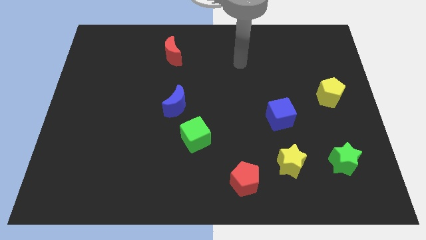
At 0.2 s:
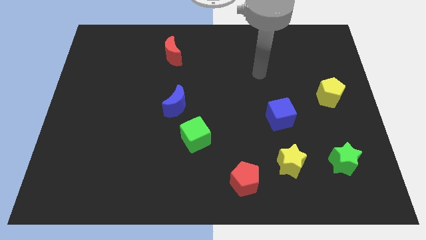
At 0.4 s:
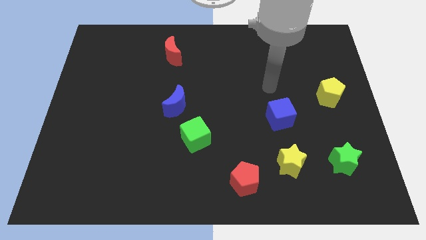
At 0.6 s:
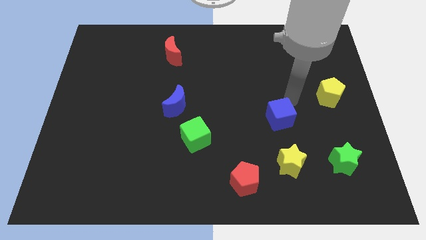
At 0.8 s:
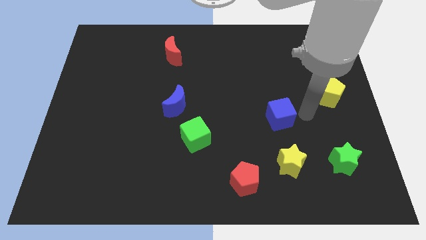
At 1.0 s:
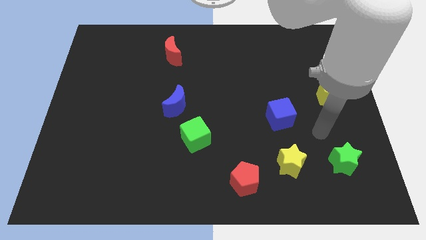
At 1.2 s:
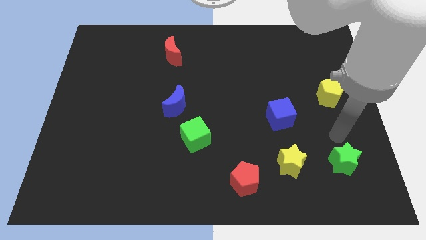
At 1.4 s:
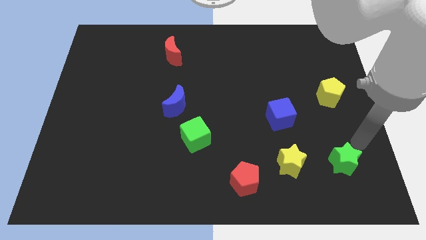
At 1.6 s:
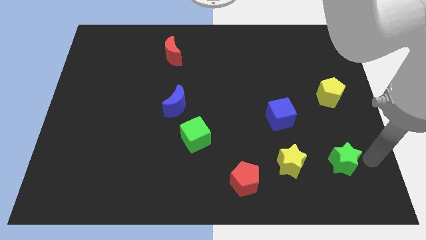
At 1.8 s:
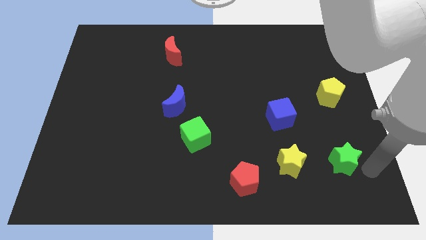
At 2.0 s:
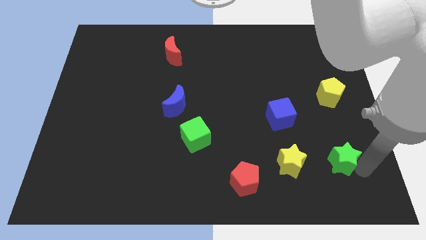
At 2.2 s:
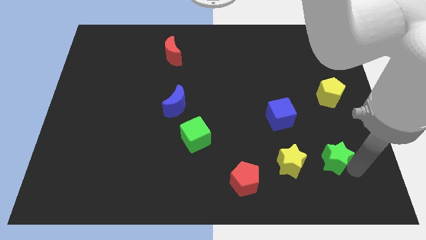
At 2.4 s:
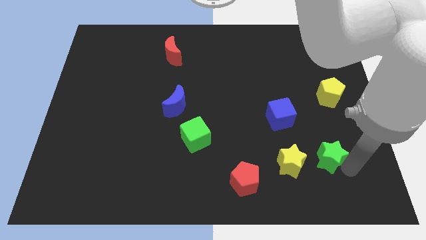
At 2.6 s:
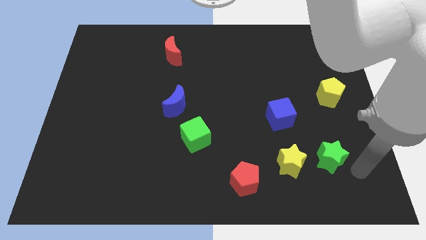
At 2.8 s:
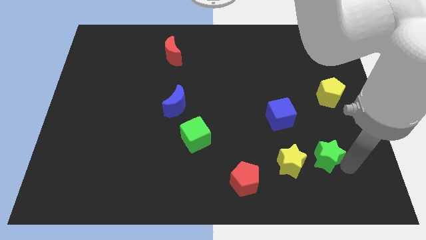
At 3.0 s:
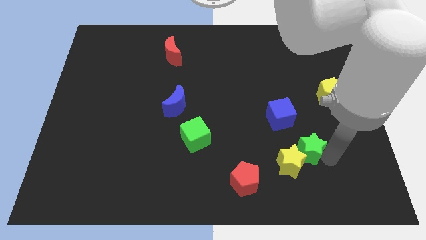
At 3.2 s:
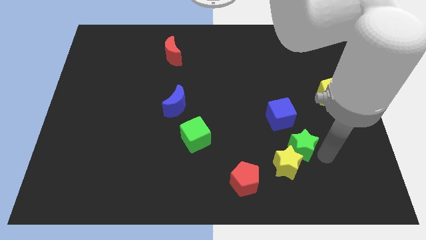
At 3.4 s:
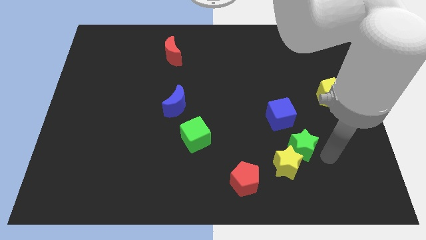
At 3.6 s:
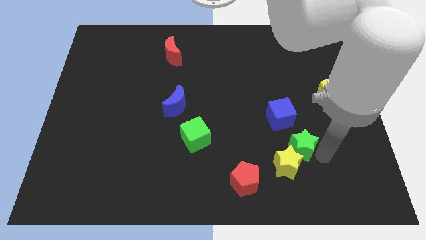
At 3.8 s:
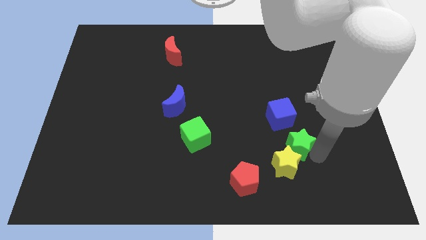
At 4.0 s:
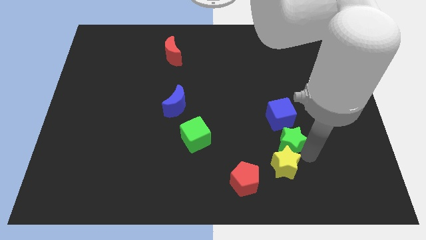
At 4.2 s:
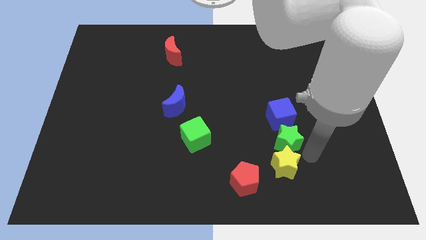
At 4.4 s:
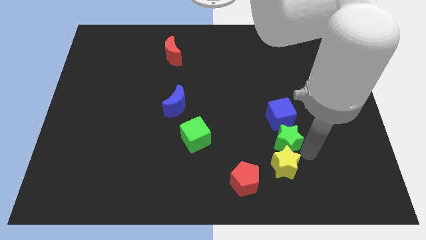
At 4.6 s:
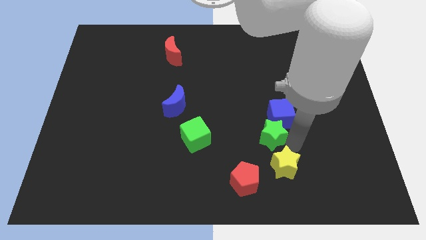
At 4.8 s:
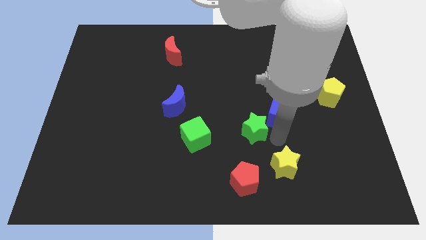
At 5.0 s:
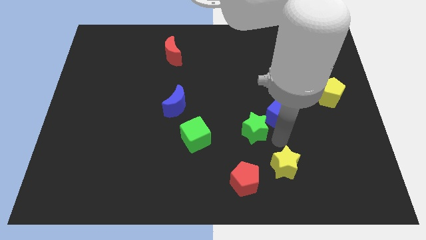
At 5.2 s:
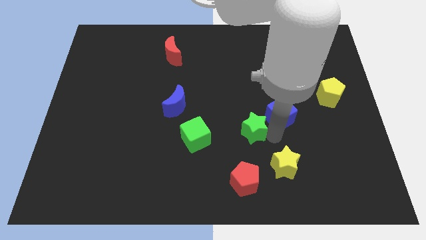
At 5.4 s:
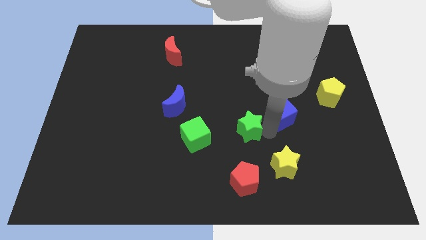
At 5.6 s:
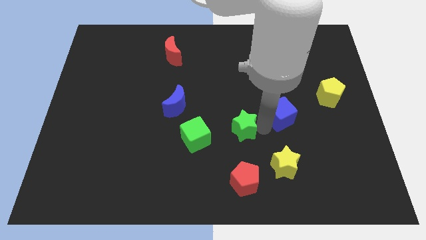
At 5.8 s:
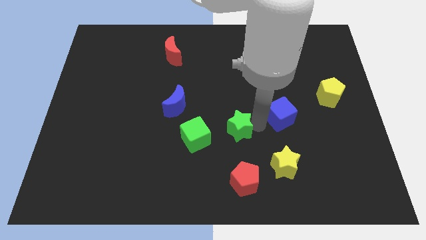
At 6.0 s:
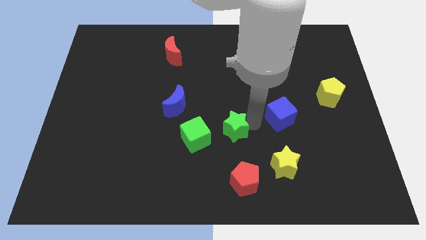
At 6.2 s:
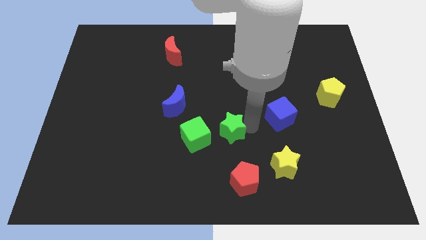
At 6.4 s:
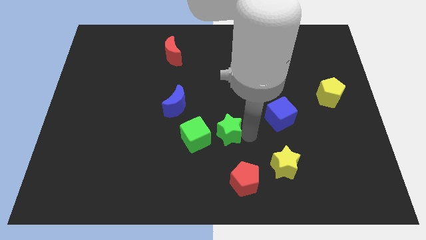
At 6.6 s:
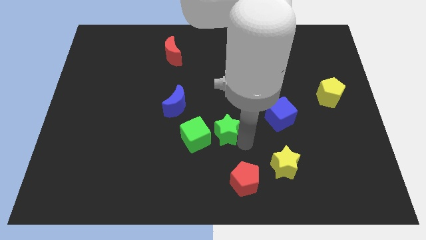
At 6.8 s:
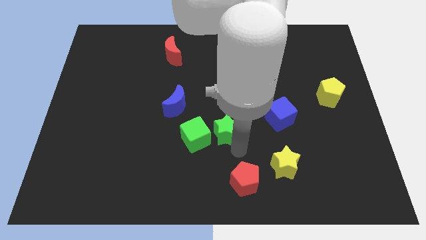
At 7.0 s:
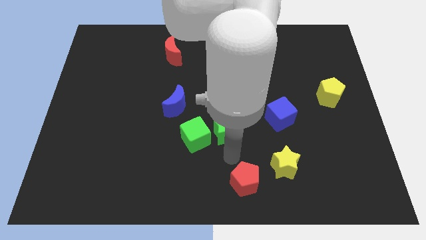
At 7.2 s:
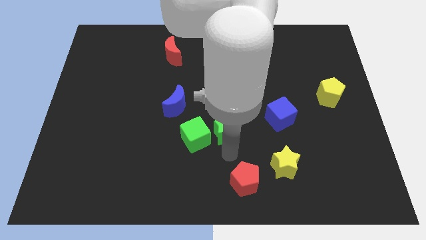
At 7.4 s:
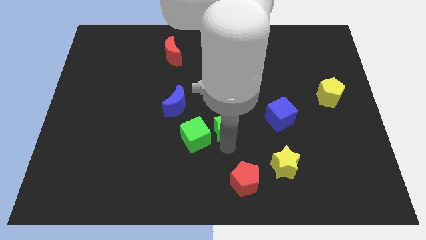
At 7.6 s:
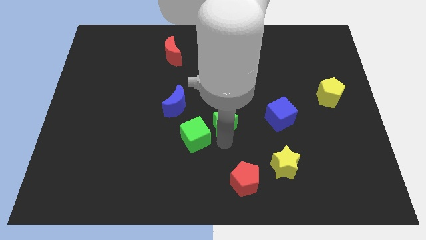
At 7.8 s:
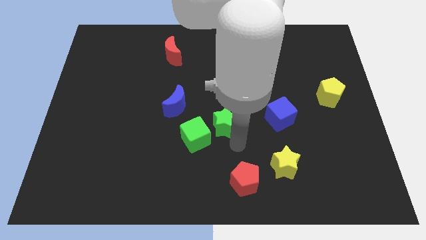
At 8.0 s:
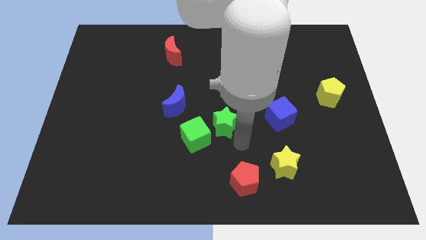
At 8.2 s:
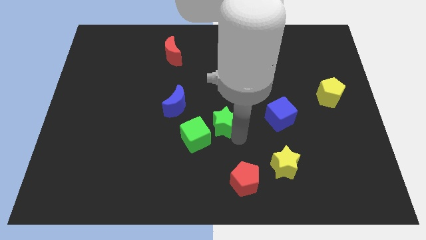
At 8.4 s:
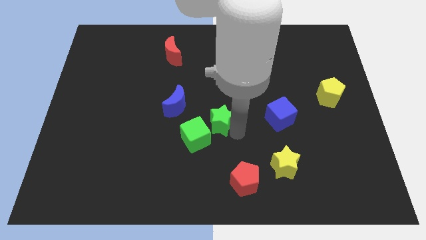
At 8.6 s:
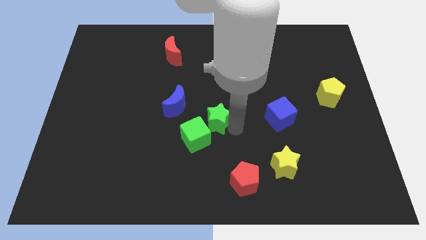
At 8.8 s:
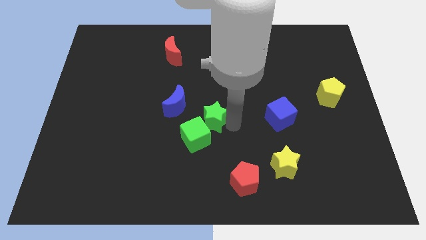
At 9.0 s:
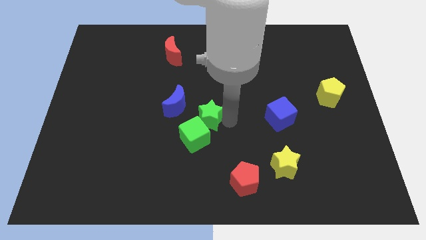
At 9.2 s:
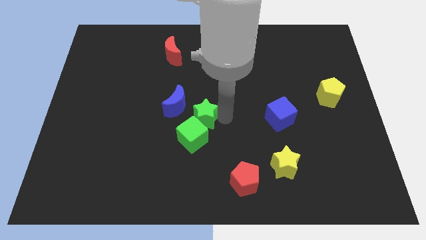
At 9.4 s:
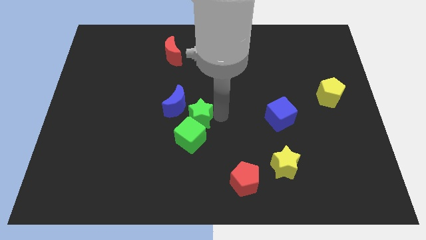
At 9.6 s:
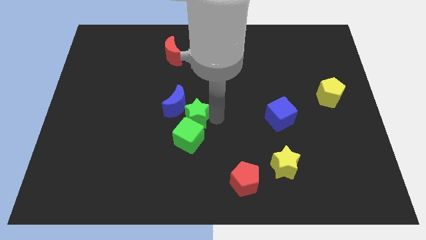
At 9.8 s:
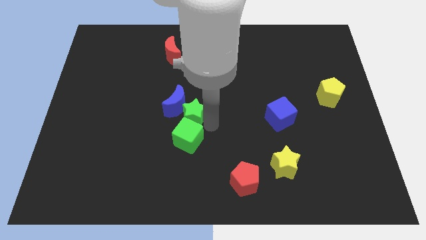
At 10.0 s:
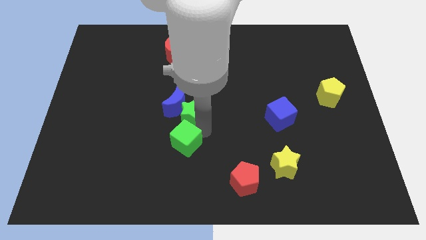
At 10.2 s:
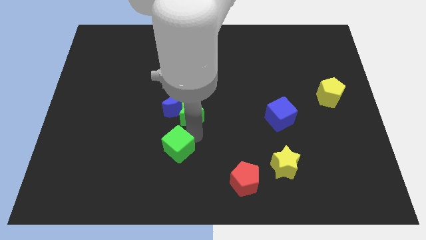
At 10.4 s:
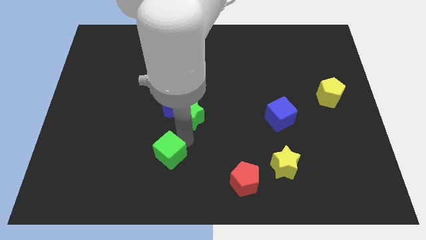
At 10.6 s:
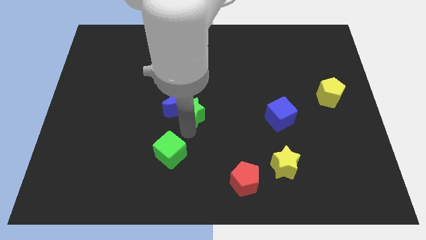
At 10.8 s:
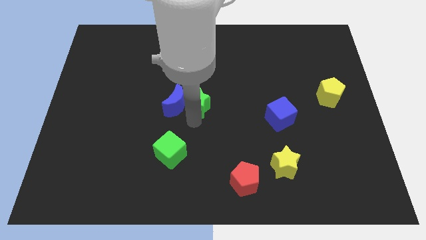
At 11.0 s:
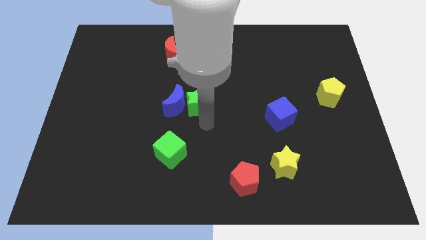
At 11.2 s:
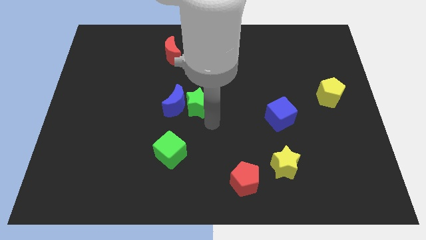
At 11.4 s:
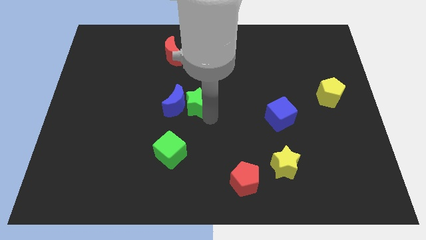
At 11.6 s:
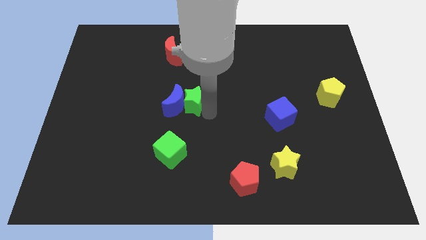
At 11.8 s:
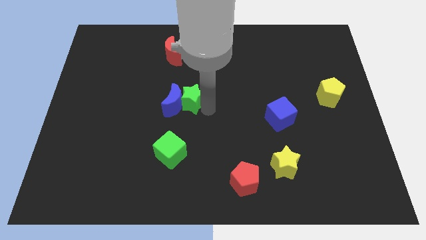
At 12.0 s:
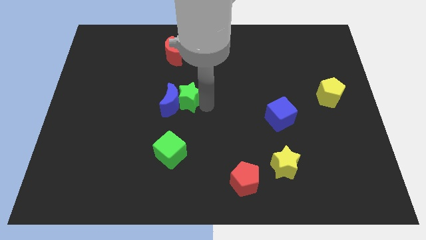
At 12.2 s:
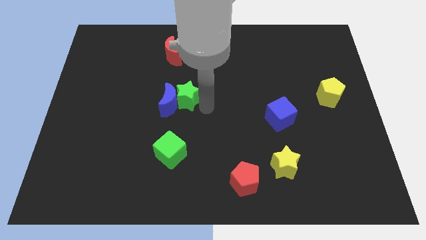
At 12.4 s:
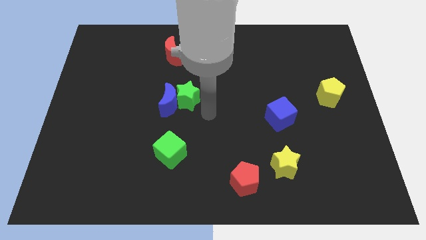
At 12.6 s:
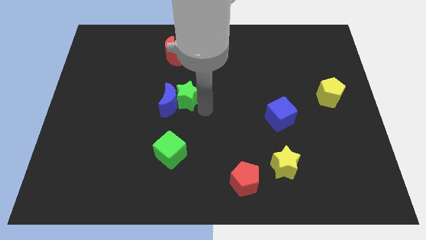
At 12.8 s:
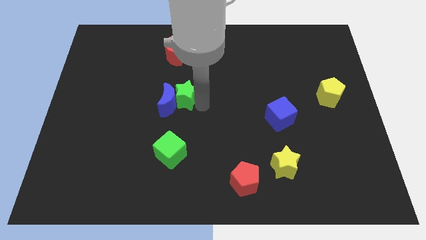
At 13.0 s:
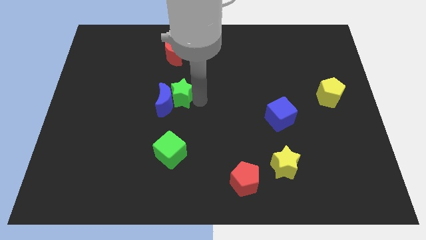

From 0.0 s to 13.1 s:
move the green star below the red moon
